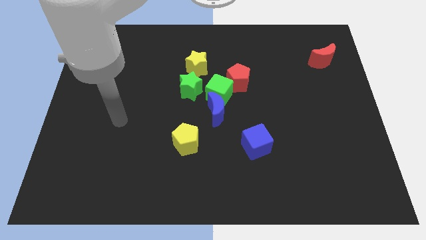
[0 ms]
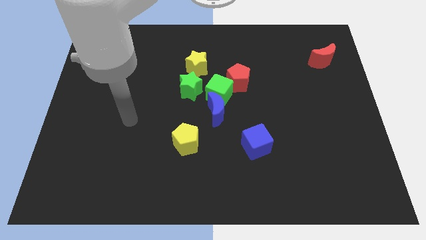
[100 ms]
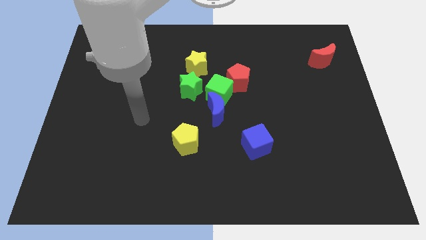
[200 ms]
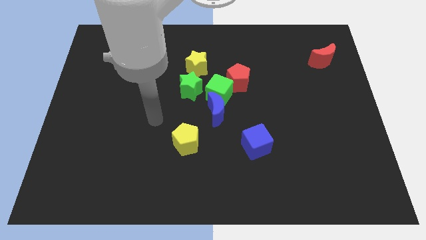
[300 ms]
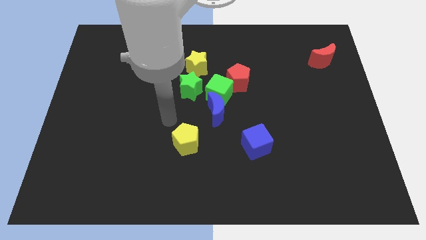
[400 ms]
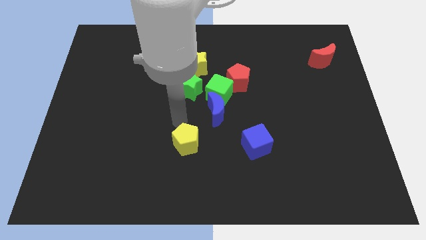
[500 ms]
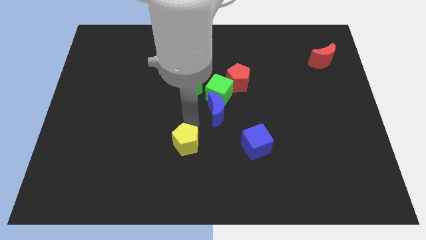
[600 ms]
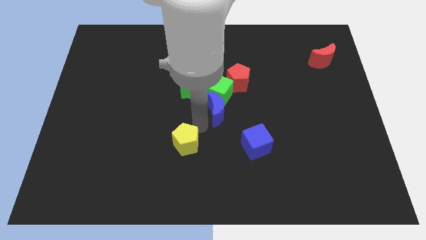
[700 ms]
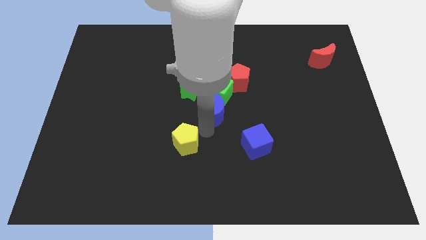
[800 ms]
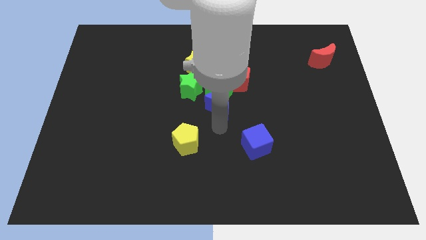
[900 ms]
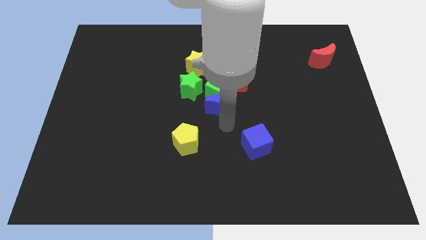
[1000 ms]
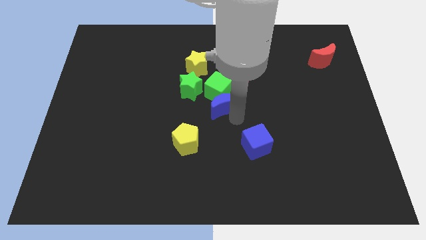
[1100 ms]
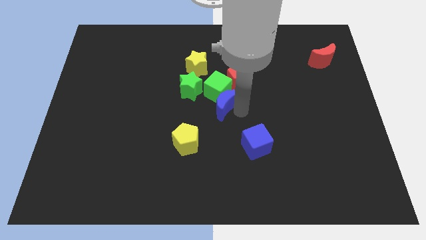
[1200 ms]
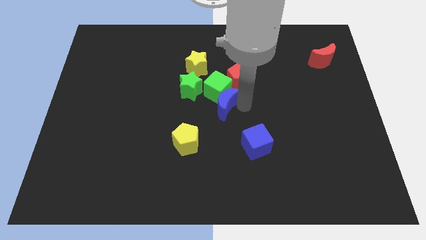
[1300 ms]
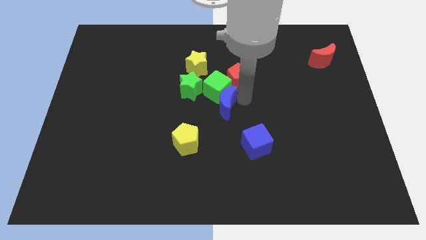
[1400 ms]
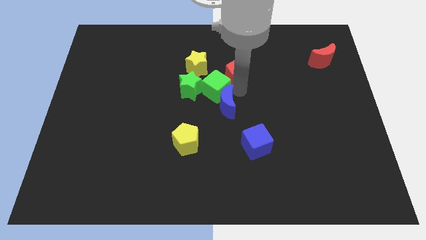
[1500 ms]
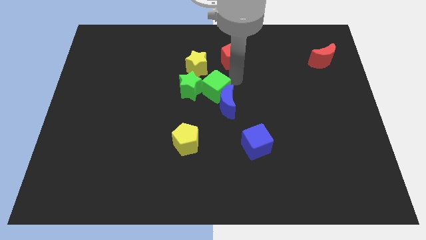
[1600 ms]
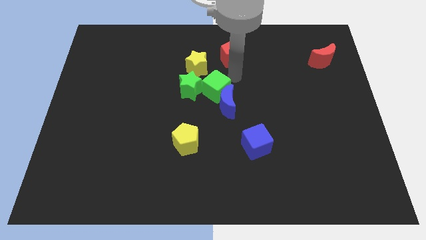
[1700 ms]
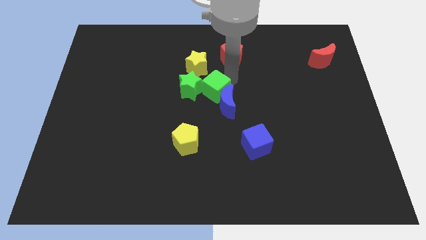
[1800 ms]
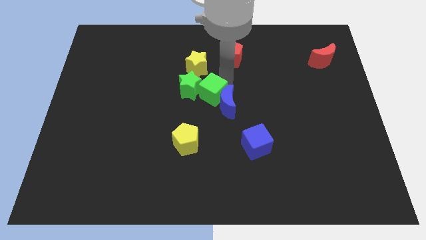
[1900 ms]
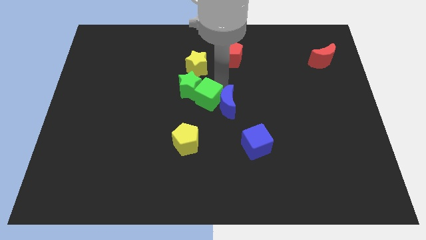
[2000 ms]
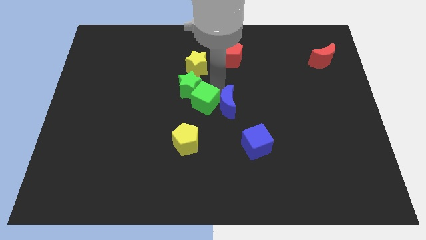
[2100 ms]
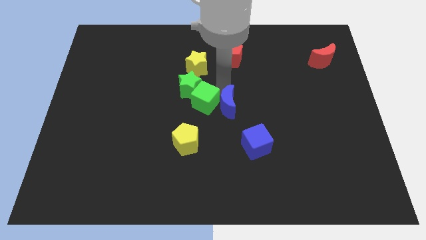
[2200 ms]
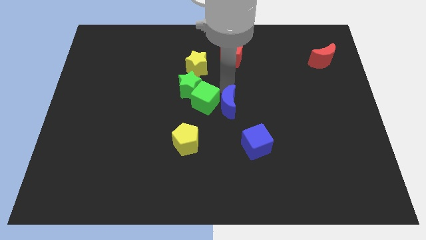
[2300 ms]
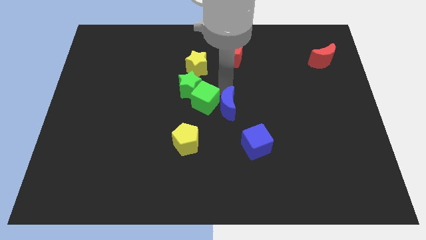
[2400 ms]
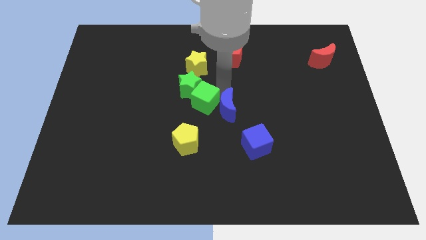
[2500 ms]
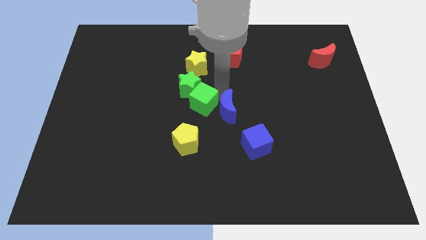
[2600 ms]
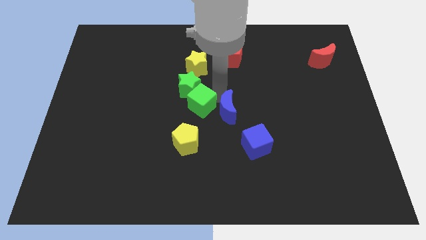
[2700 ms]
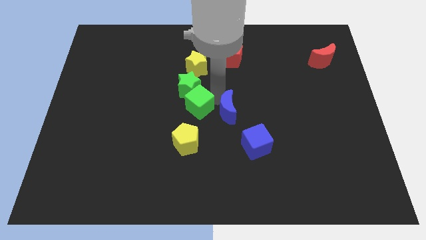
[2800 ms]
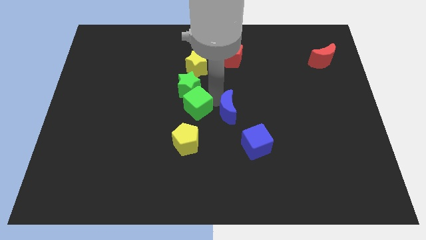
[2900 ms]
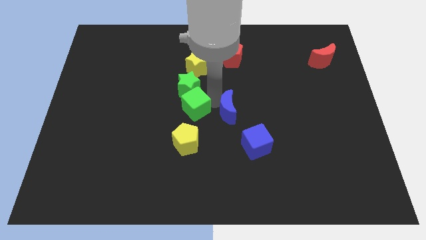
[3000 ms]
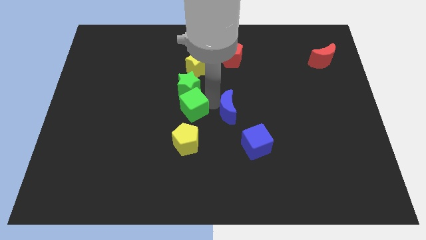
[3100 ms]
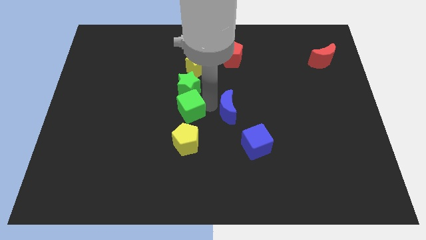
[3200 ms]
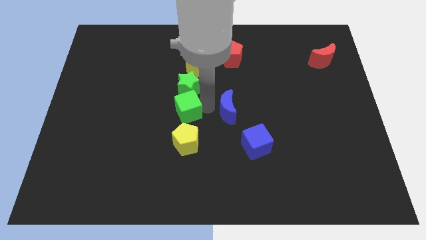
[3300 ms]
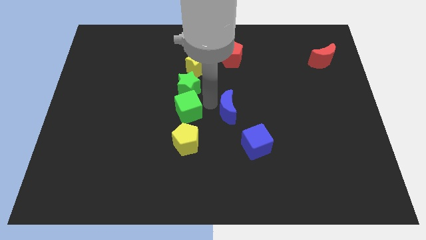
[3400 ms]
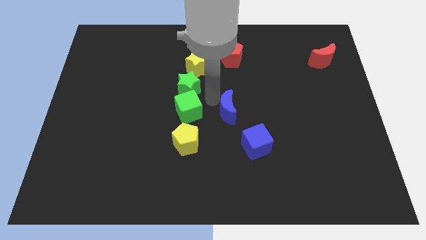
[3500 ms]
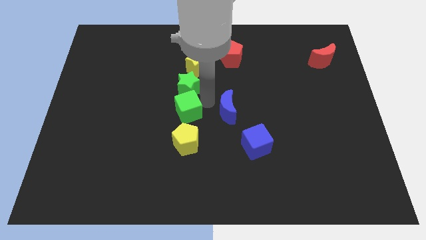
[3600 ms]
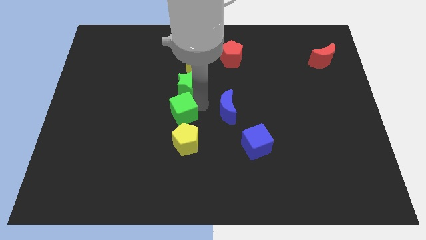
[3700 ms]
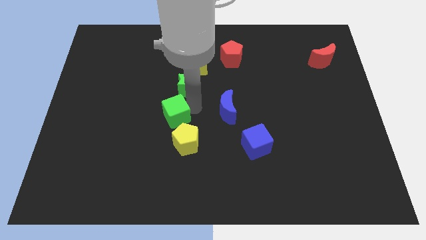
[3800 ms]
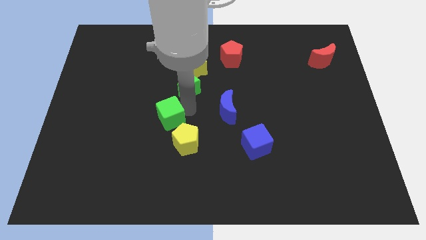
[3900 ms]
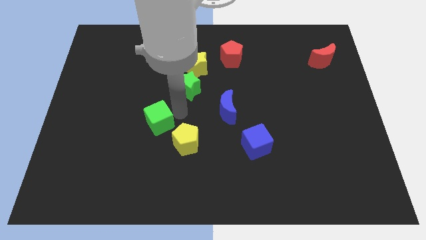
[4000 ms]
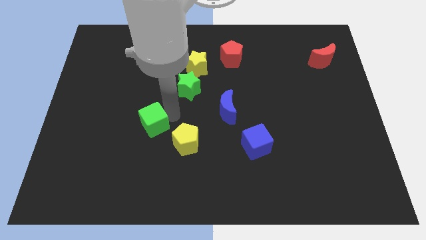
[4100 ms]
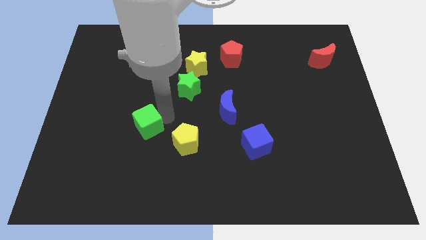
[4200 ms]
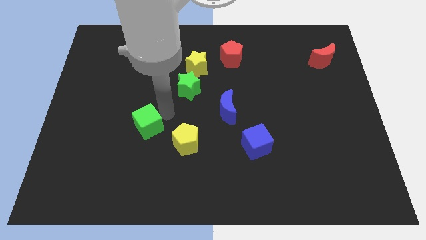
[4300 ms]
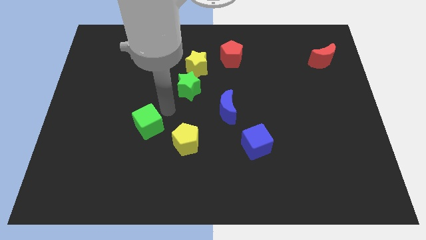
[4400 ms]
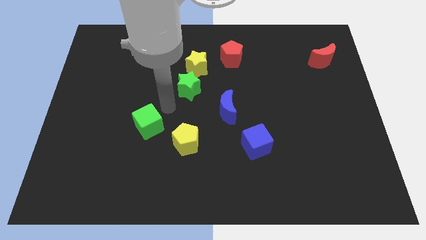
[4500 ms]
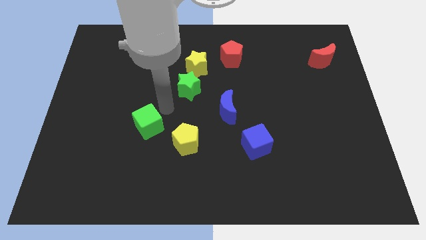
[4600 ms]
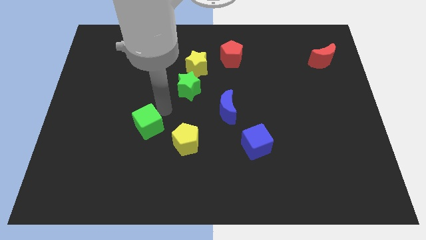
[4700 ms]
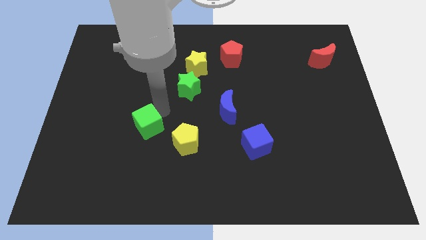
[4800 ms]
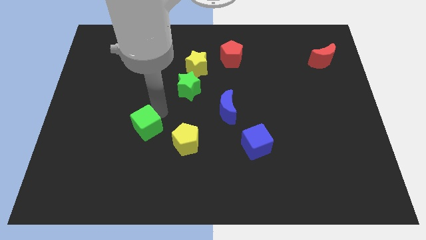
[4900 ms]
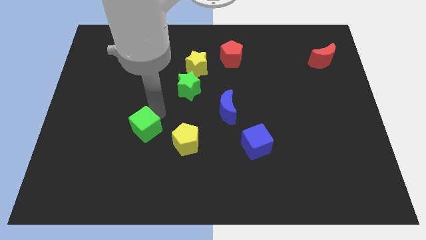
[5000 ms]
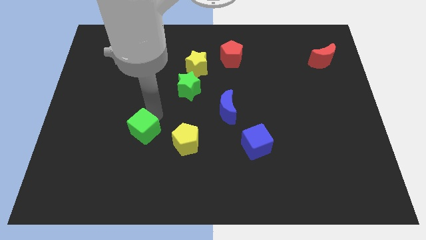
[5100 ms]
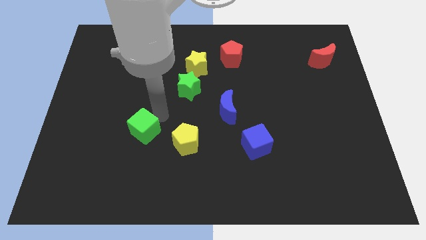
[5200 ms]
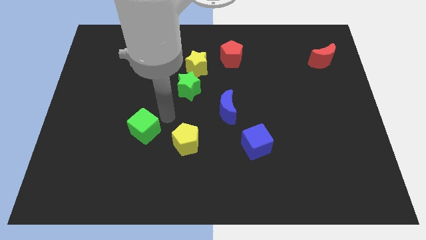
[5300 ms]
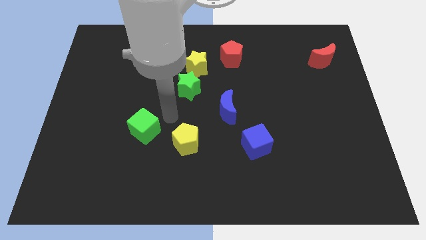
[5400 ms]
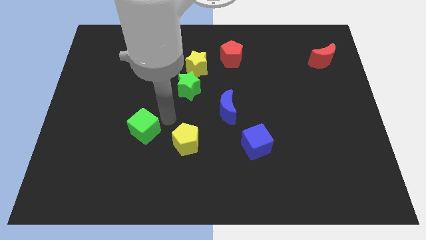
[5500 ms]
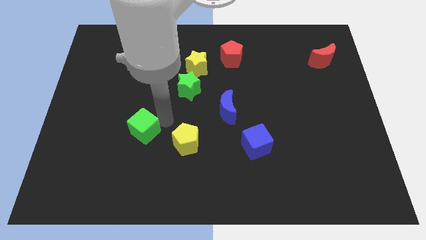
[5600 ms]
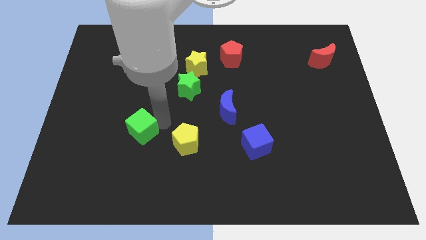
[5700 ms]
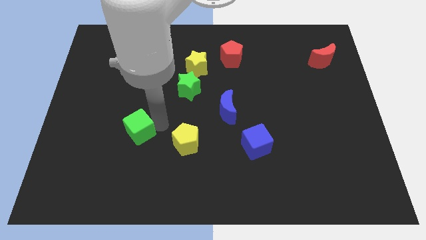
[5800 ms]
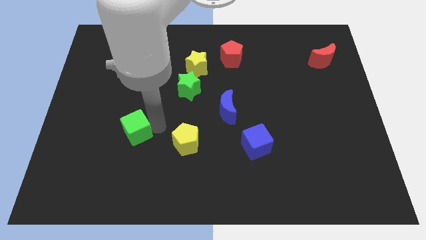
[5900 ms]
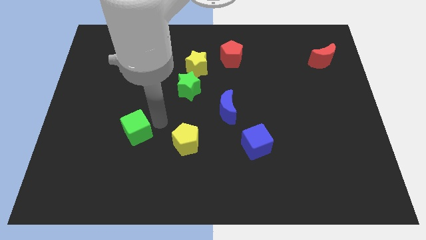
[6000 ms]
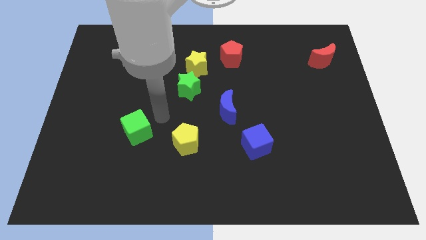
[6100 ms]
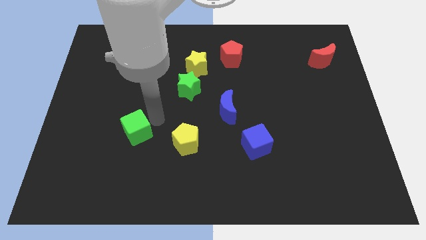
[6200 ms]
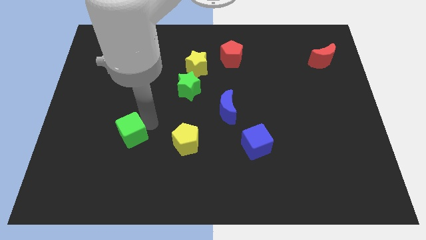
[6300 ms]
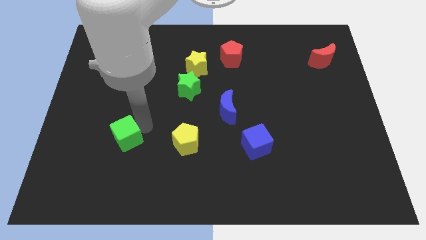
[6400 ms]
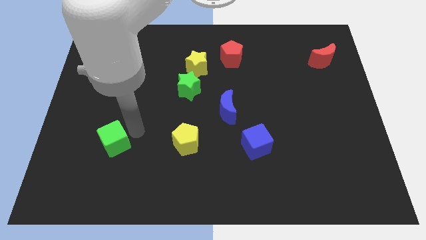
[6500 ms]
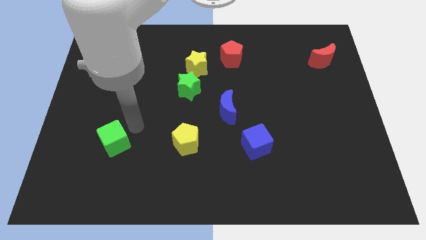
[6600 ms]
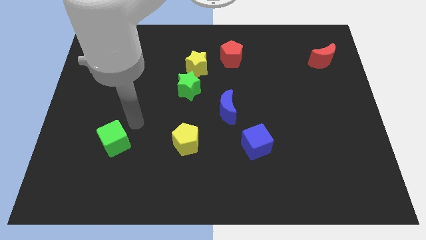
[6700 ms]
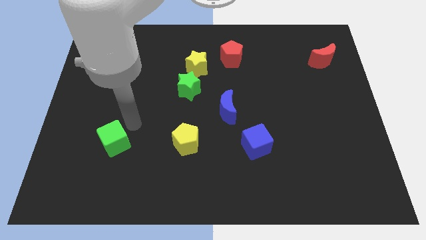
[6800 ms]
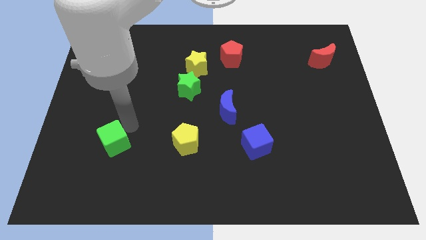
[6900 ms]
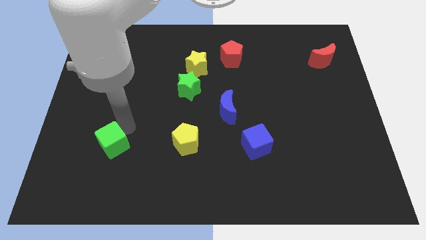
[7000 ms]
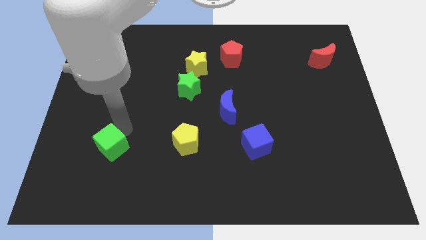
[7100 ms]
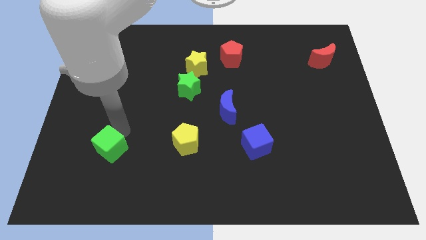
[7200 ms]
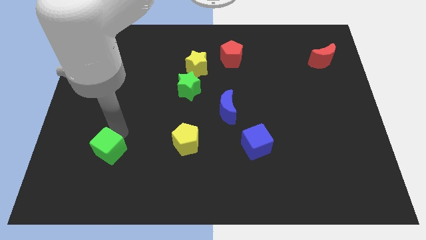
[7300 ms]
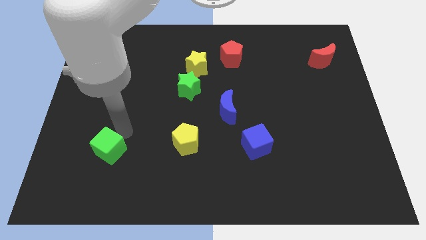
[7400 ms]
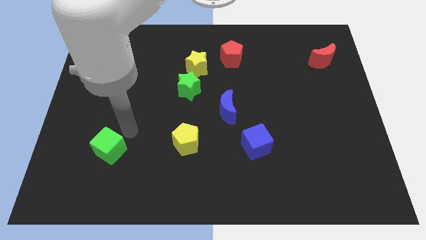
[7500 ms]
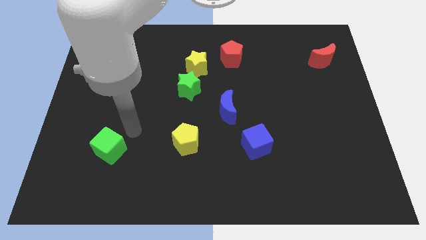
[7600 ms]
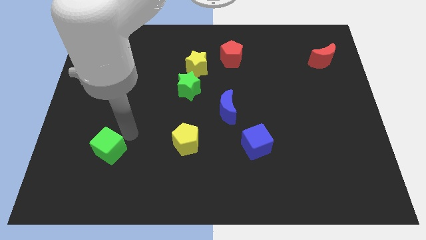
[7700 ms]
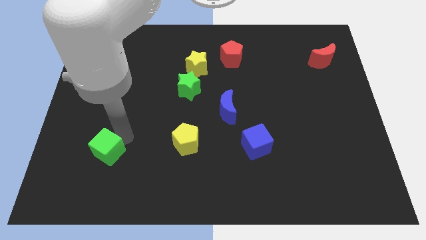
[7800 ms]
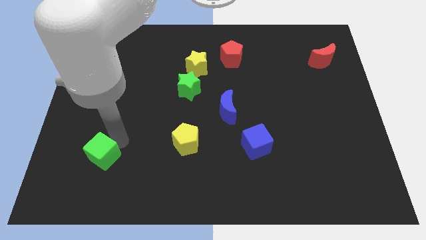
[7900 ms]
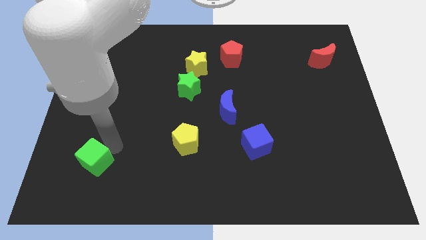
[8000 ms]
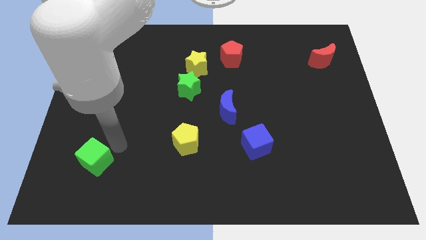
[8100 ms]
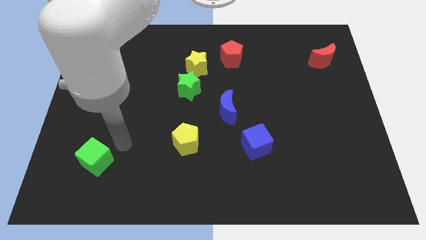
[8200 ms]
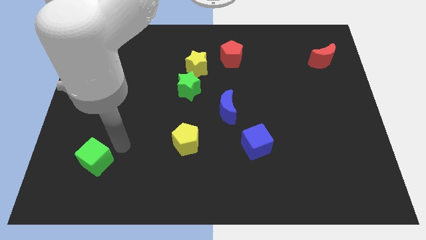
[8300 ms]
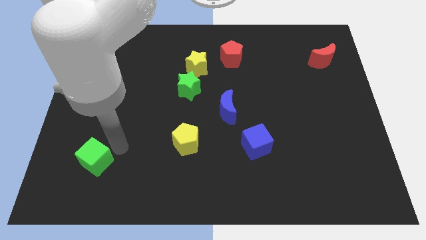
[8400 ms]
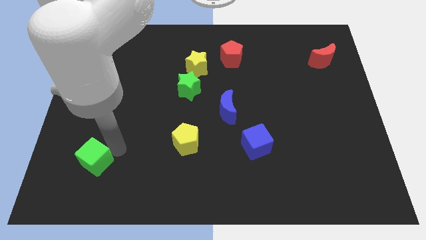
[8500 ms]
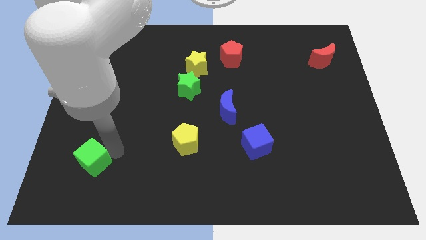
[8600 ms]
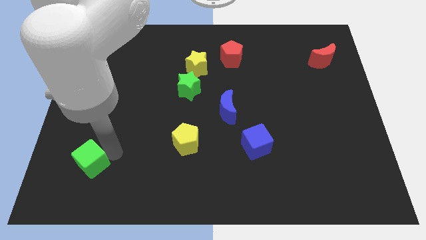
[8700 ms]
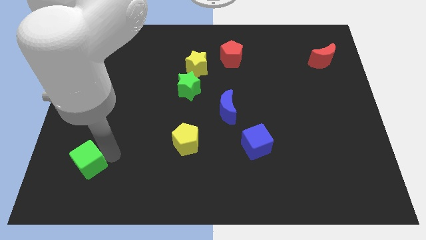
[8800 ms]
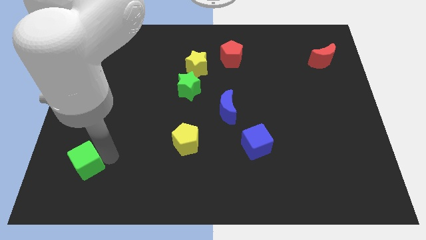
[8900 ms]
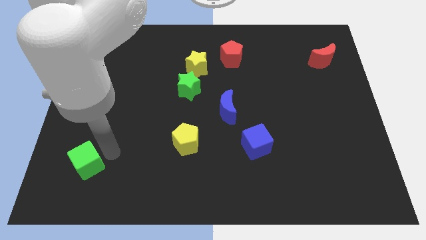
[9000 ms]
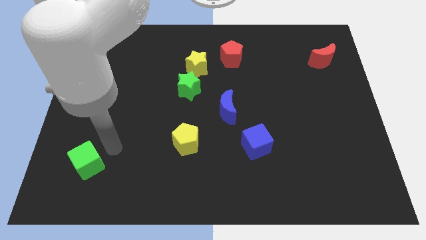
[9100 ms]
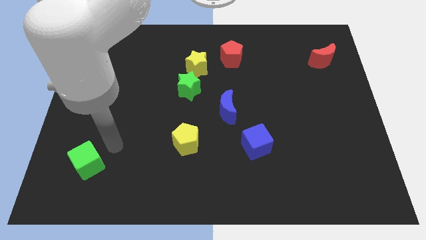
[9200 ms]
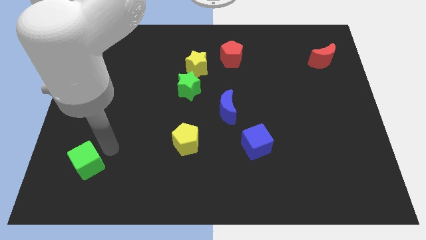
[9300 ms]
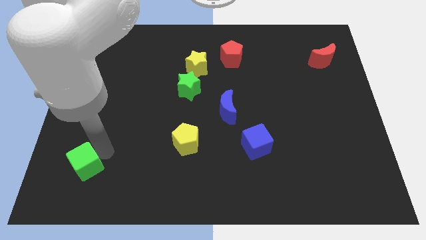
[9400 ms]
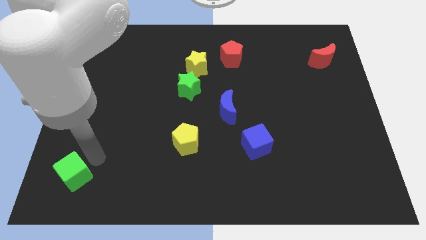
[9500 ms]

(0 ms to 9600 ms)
move the green cube to the bottom left corner
